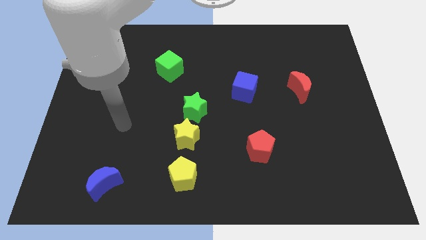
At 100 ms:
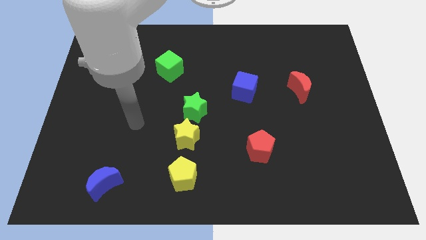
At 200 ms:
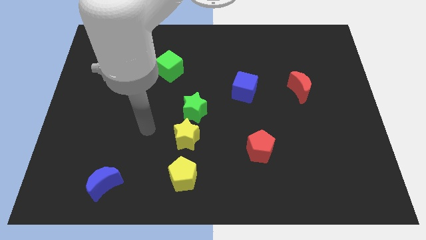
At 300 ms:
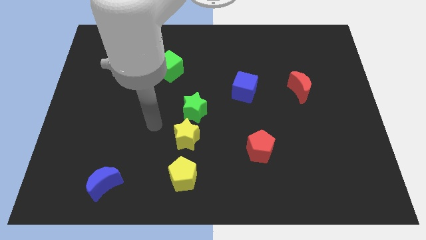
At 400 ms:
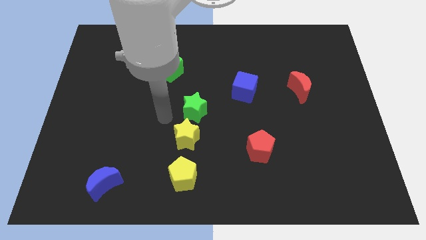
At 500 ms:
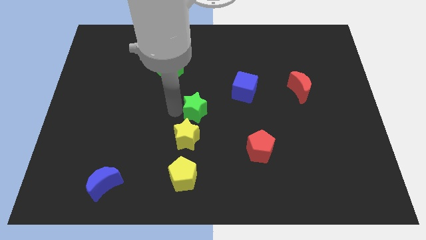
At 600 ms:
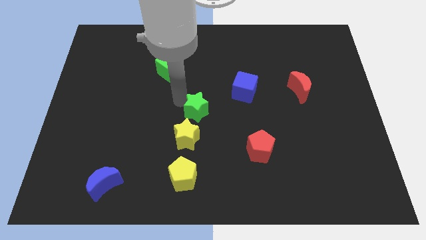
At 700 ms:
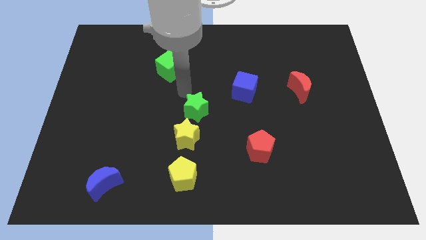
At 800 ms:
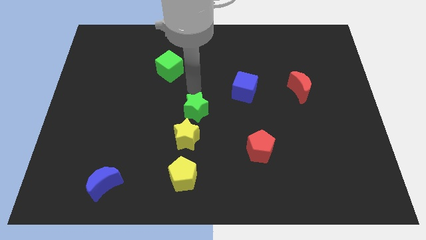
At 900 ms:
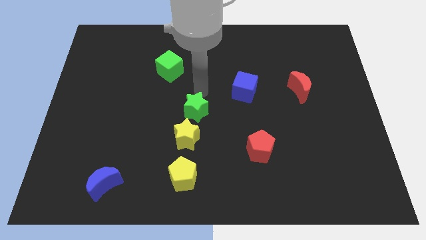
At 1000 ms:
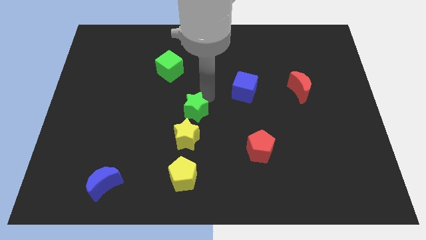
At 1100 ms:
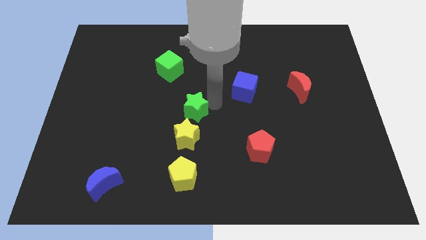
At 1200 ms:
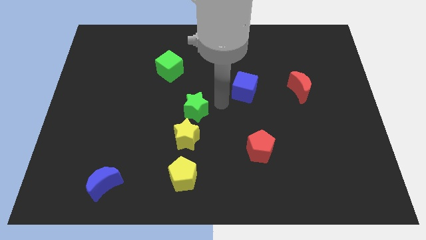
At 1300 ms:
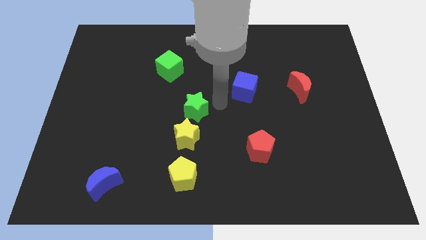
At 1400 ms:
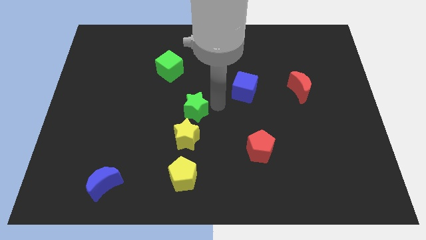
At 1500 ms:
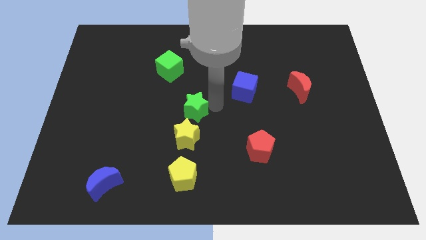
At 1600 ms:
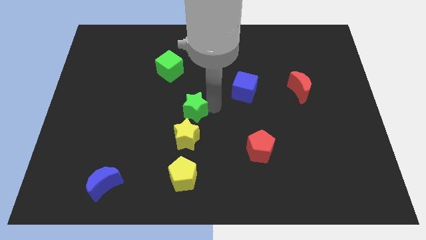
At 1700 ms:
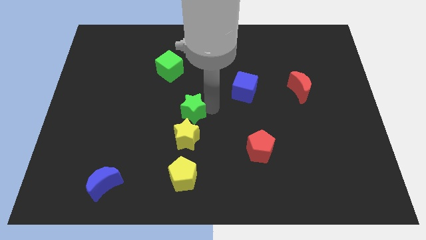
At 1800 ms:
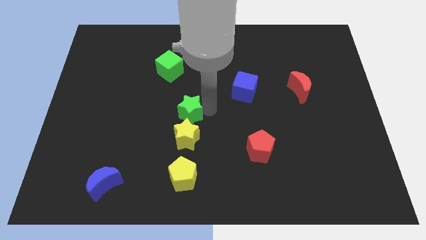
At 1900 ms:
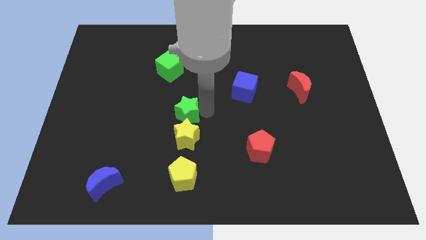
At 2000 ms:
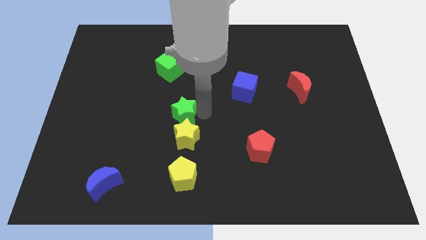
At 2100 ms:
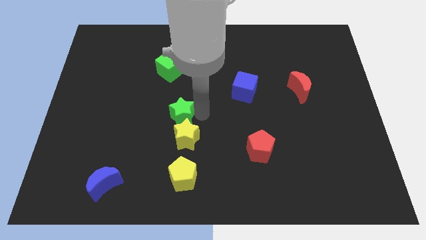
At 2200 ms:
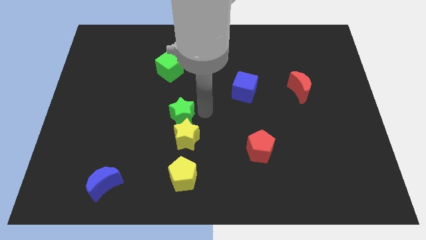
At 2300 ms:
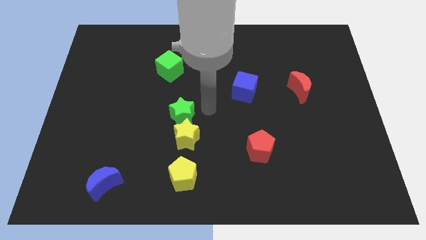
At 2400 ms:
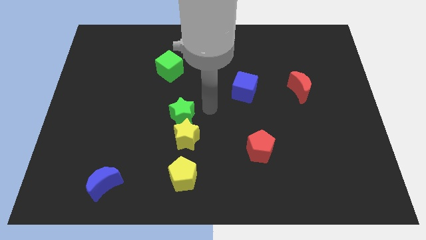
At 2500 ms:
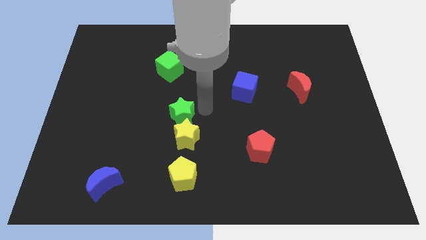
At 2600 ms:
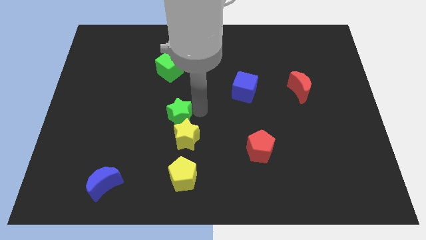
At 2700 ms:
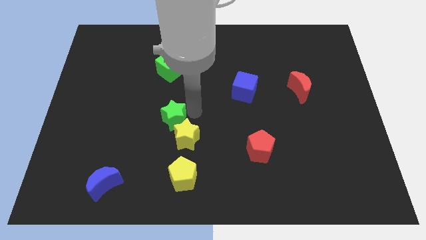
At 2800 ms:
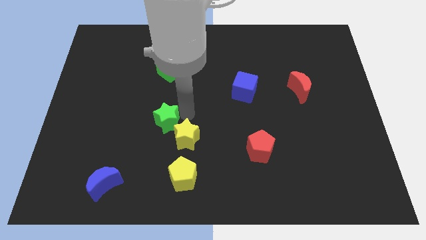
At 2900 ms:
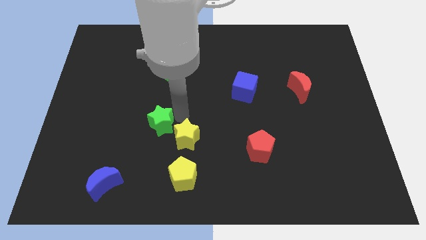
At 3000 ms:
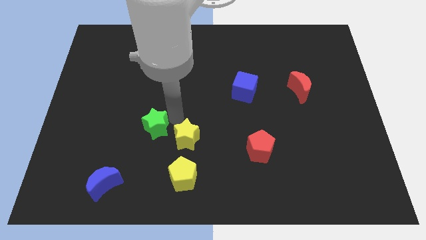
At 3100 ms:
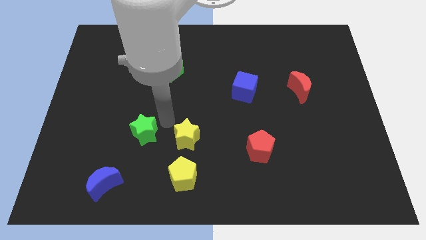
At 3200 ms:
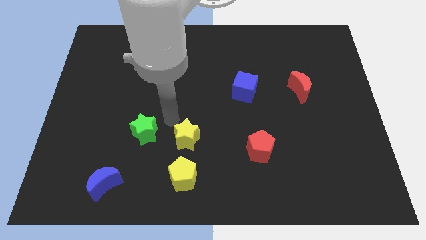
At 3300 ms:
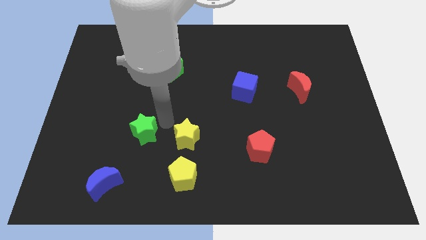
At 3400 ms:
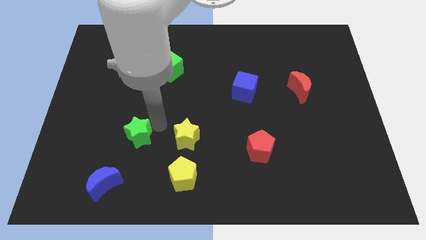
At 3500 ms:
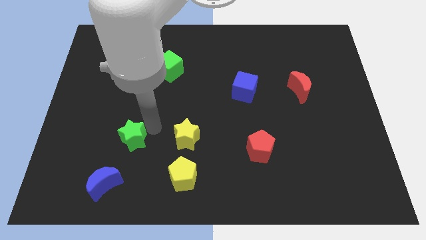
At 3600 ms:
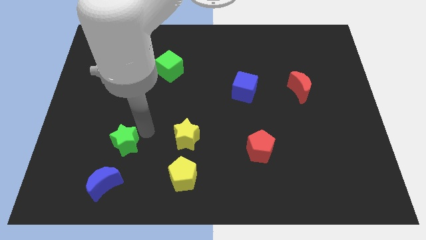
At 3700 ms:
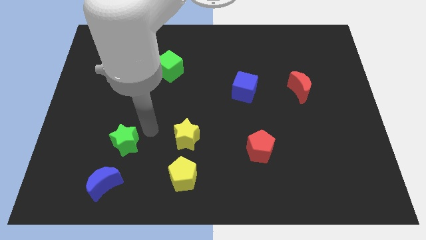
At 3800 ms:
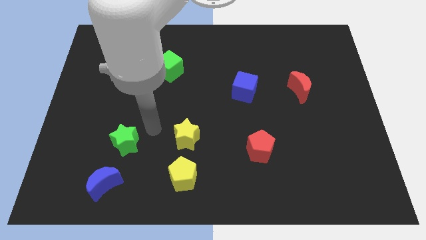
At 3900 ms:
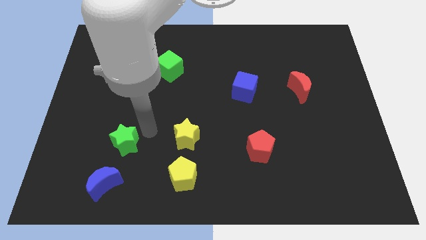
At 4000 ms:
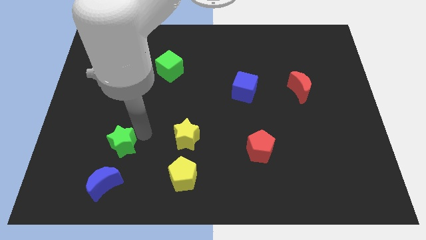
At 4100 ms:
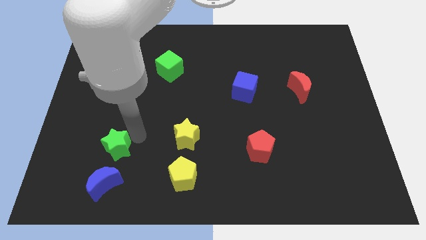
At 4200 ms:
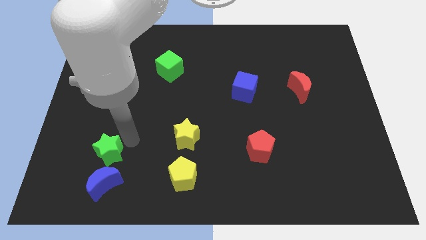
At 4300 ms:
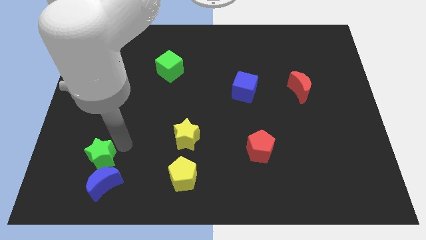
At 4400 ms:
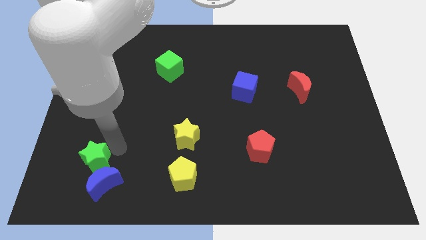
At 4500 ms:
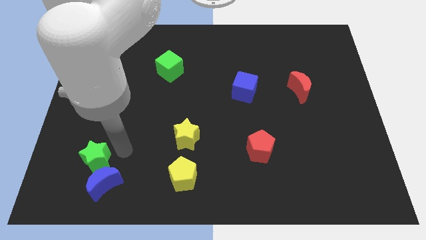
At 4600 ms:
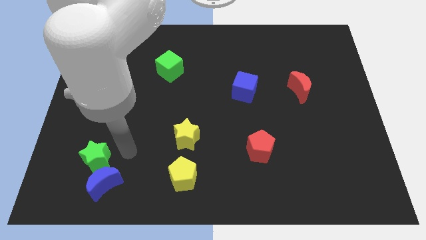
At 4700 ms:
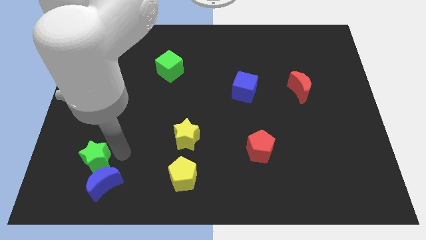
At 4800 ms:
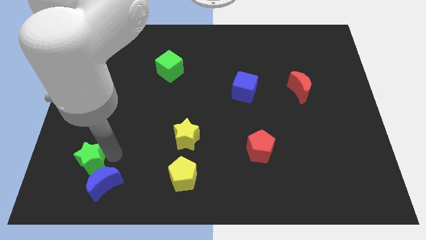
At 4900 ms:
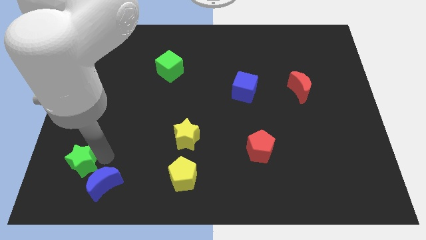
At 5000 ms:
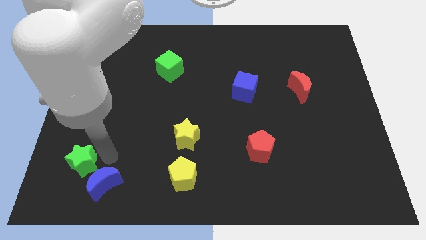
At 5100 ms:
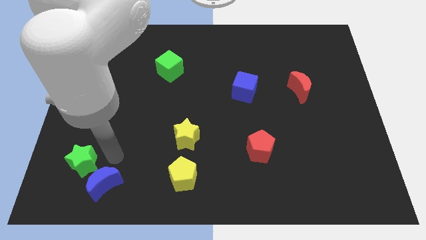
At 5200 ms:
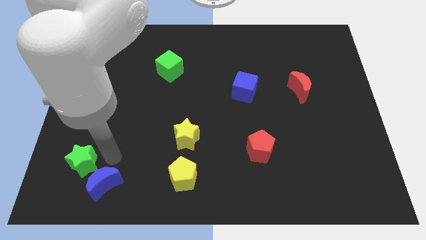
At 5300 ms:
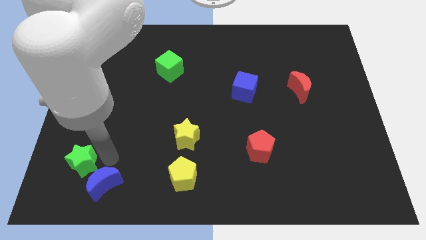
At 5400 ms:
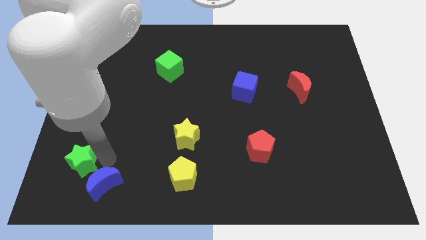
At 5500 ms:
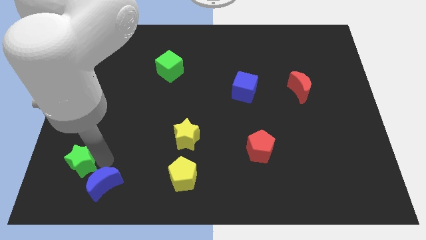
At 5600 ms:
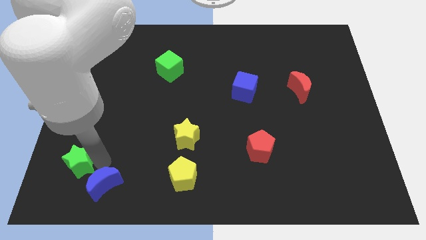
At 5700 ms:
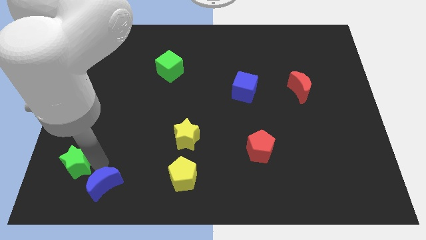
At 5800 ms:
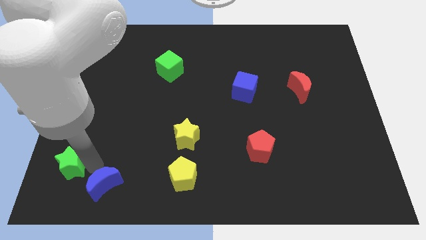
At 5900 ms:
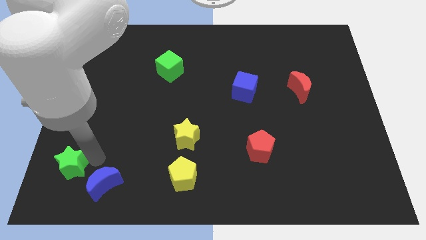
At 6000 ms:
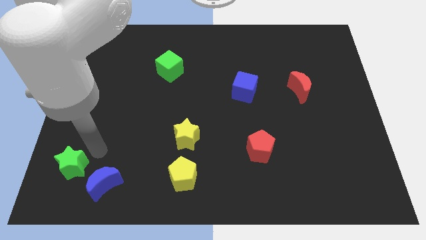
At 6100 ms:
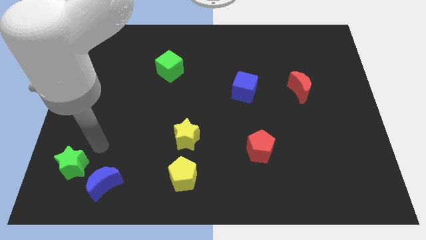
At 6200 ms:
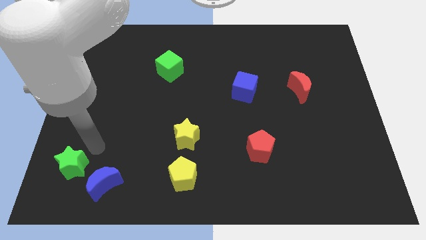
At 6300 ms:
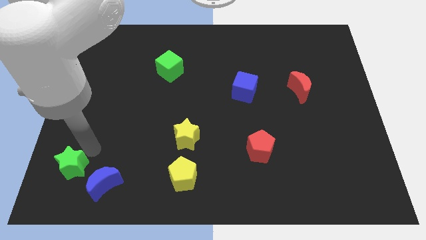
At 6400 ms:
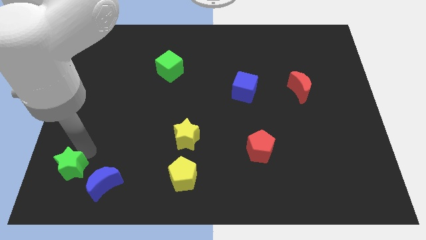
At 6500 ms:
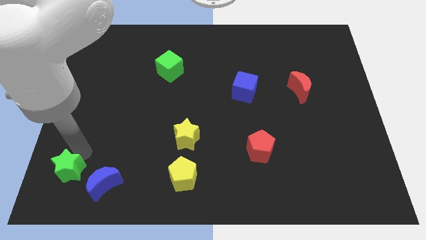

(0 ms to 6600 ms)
slide the green star to the bottom left of the board
